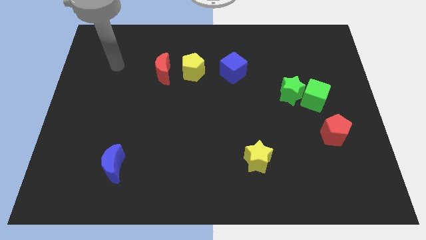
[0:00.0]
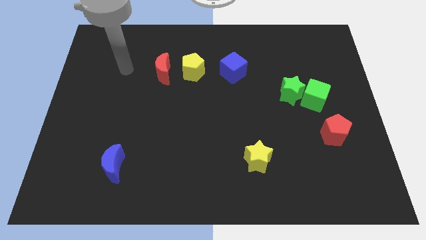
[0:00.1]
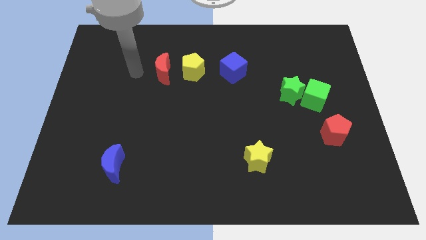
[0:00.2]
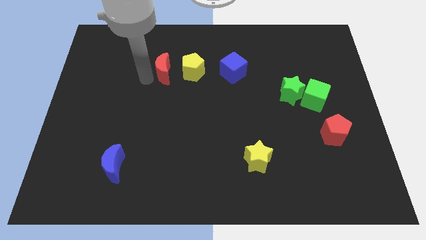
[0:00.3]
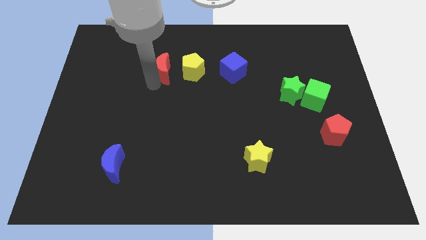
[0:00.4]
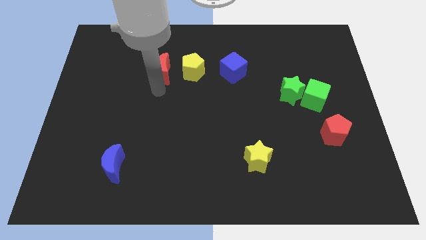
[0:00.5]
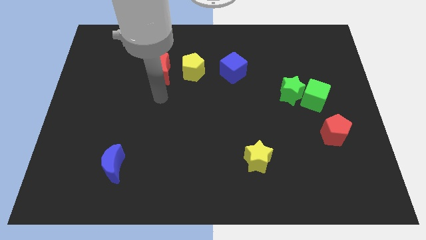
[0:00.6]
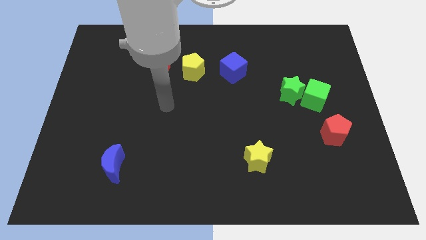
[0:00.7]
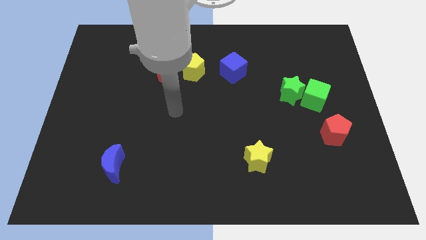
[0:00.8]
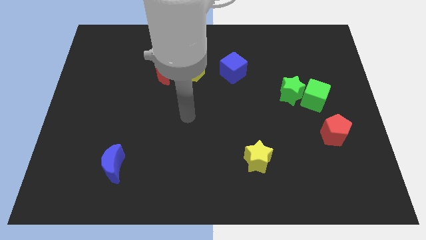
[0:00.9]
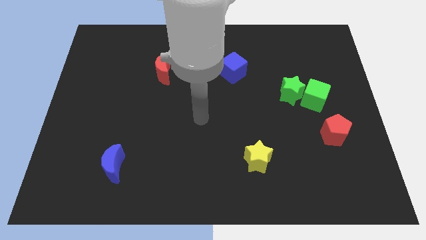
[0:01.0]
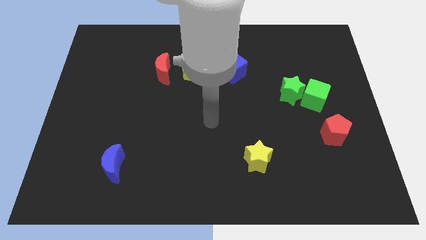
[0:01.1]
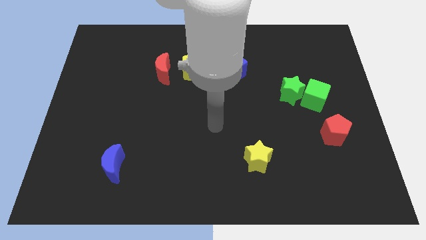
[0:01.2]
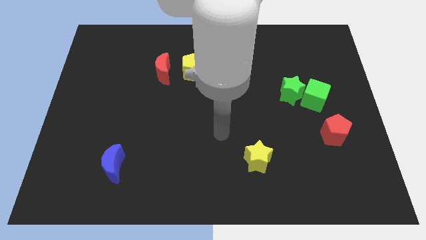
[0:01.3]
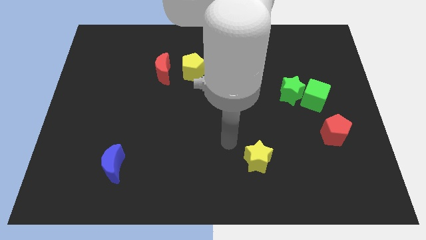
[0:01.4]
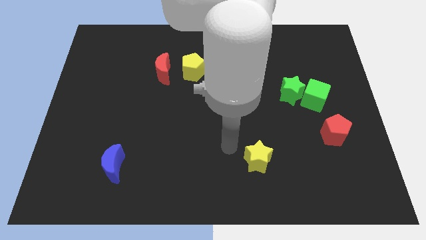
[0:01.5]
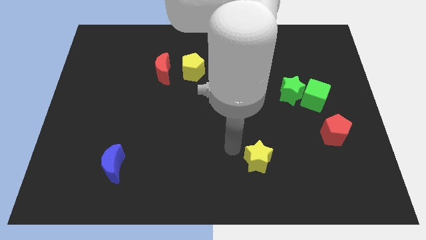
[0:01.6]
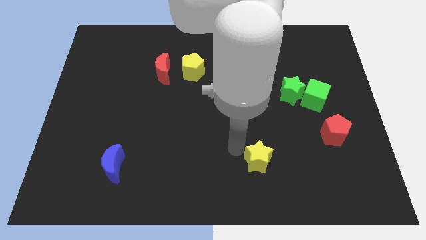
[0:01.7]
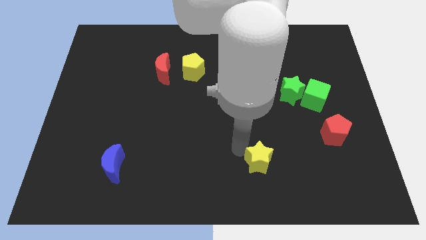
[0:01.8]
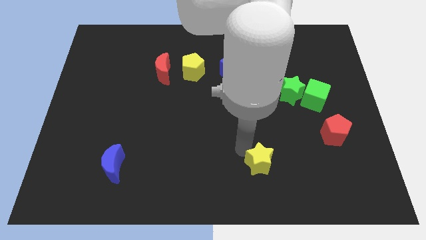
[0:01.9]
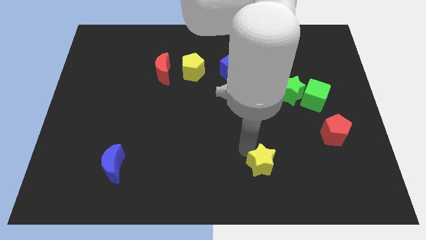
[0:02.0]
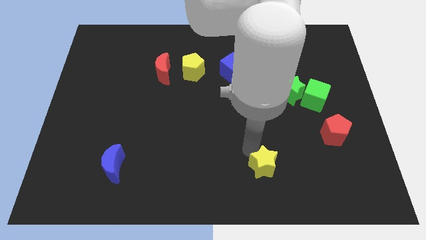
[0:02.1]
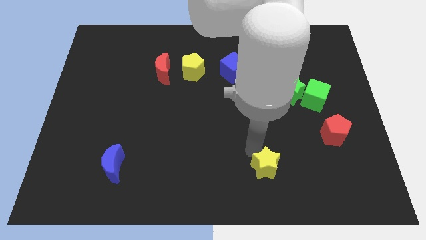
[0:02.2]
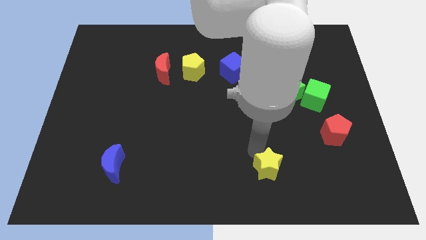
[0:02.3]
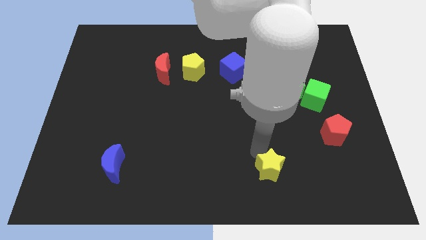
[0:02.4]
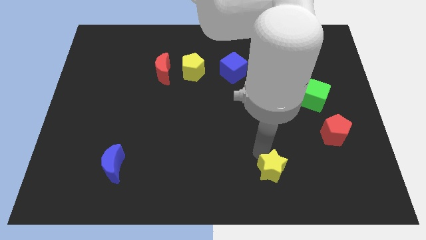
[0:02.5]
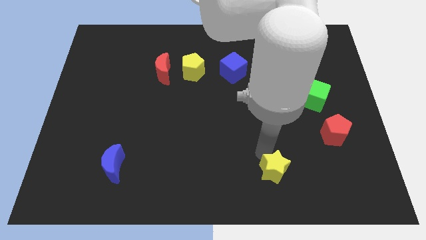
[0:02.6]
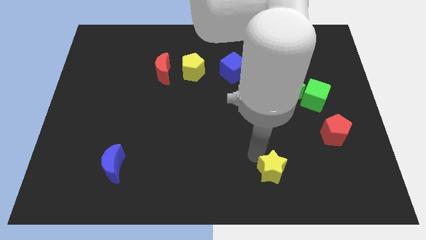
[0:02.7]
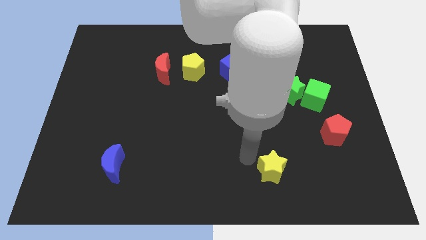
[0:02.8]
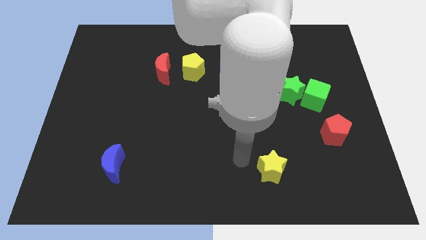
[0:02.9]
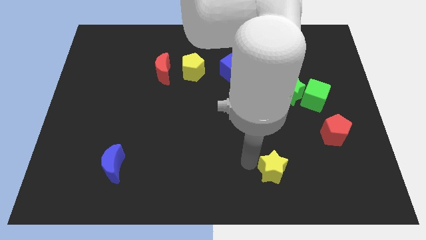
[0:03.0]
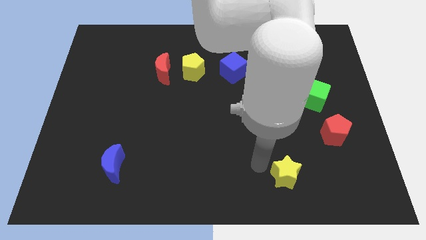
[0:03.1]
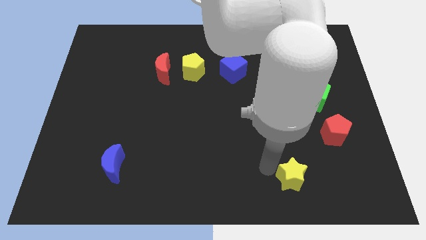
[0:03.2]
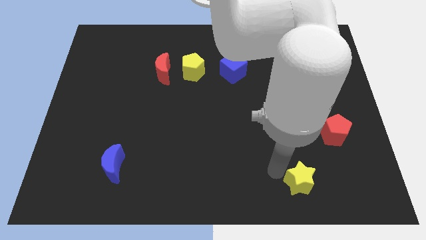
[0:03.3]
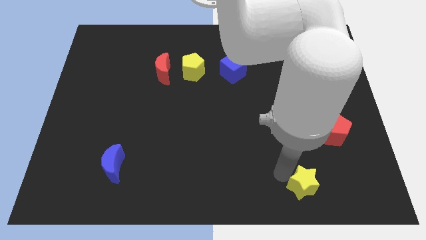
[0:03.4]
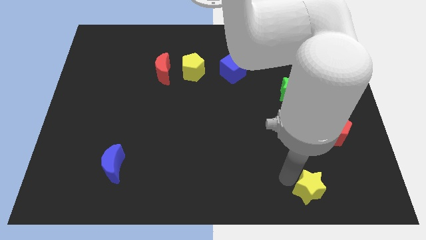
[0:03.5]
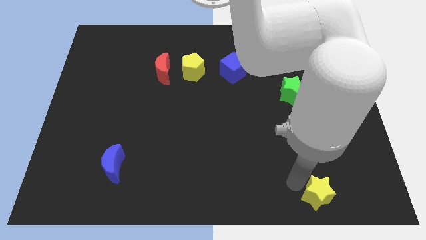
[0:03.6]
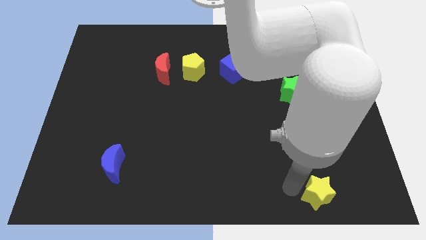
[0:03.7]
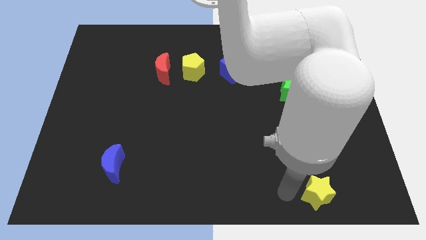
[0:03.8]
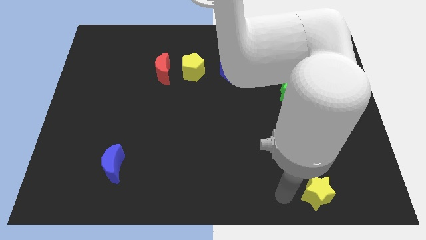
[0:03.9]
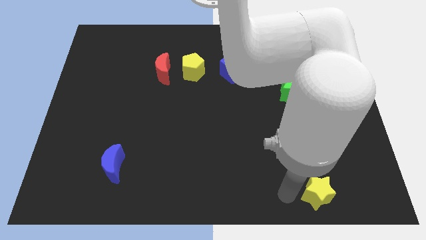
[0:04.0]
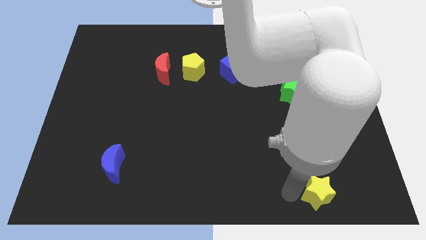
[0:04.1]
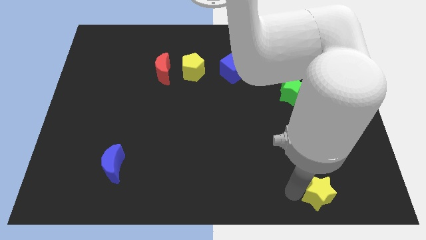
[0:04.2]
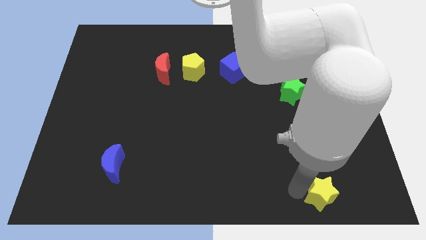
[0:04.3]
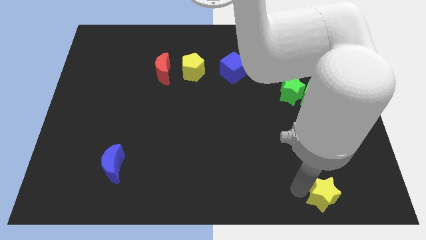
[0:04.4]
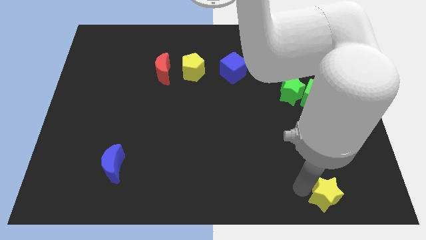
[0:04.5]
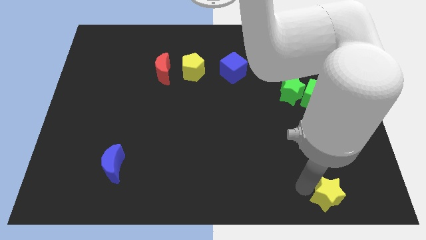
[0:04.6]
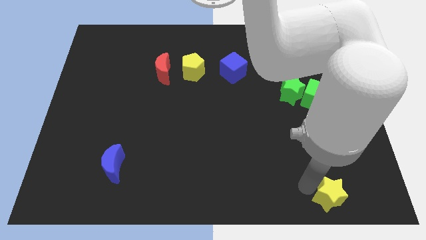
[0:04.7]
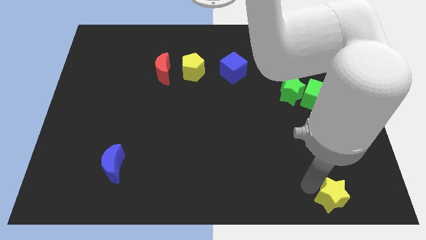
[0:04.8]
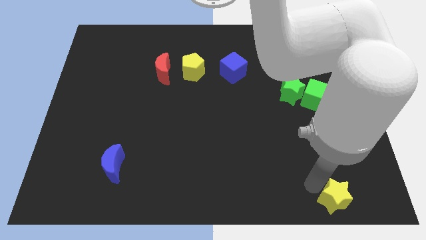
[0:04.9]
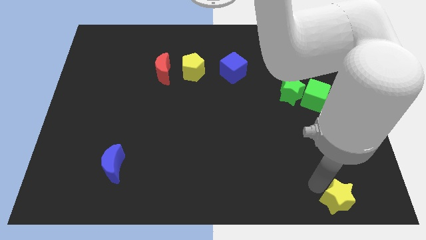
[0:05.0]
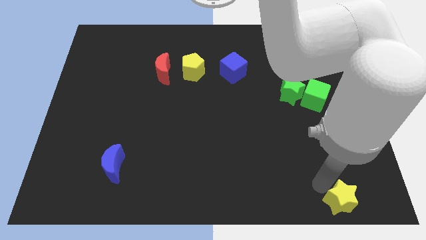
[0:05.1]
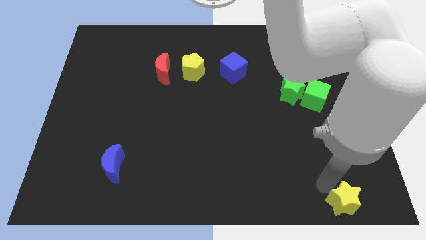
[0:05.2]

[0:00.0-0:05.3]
put the yellow star to the lower right corner

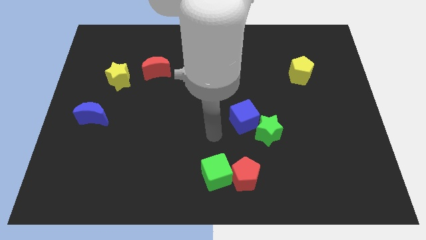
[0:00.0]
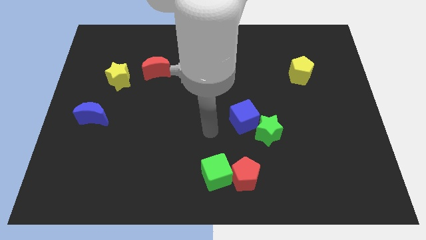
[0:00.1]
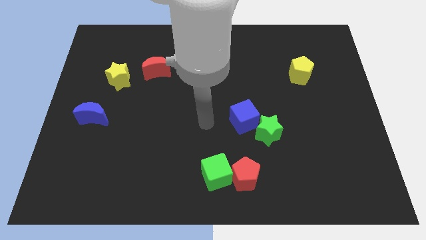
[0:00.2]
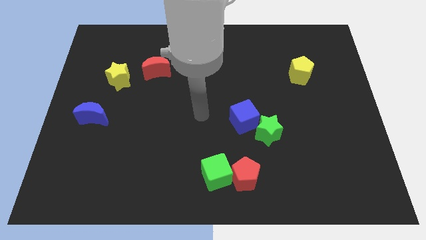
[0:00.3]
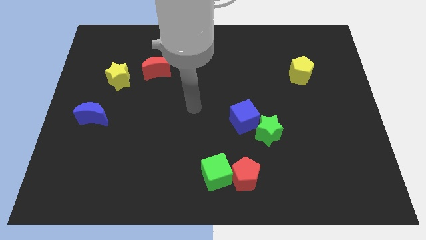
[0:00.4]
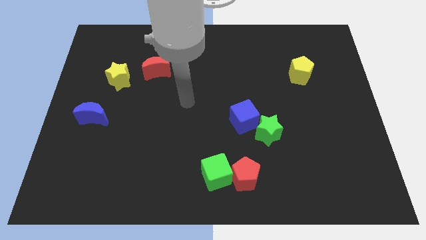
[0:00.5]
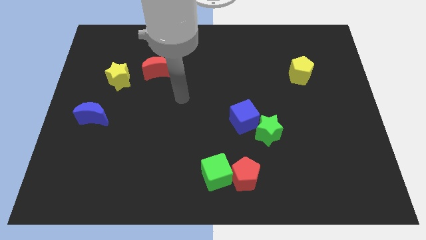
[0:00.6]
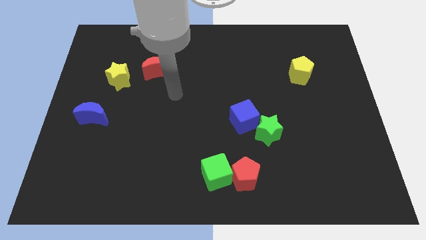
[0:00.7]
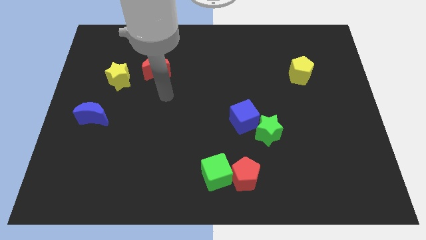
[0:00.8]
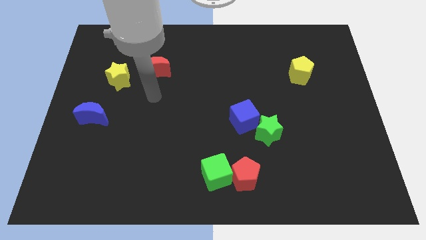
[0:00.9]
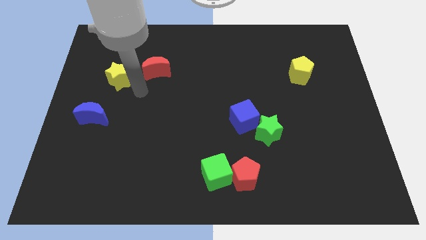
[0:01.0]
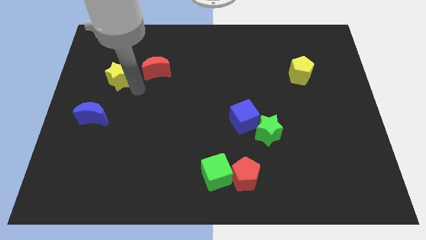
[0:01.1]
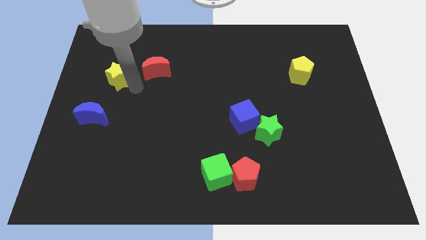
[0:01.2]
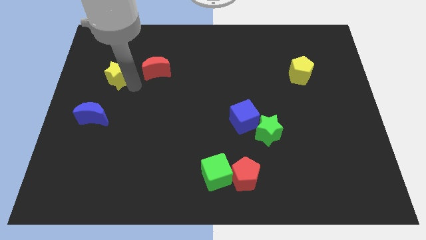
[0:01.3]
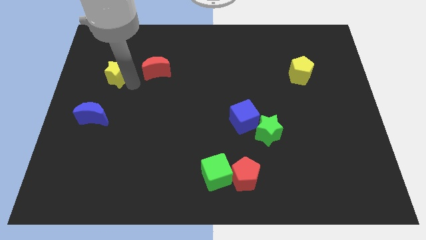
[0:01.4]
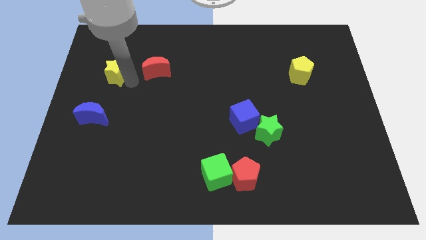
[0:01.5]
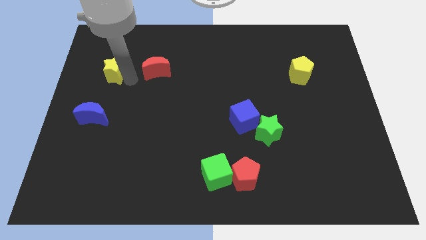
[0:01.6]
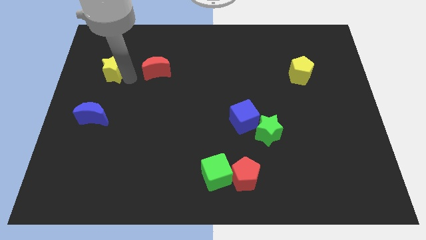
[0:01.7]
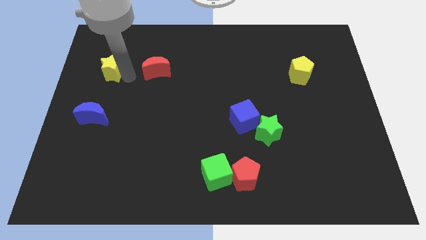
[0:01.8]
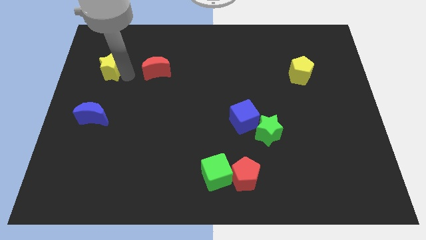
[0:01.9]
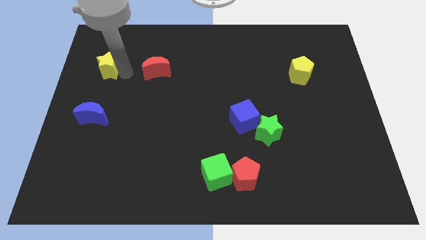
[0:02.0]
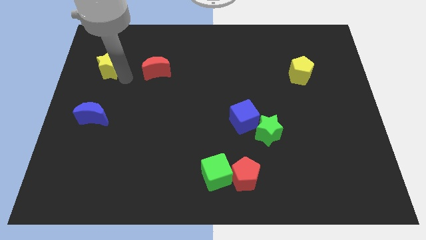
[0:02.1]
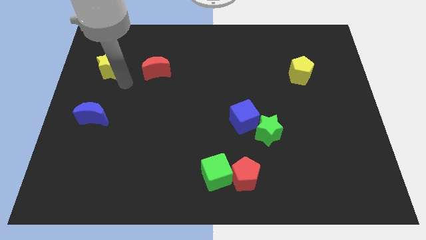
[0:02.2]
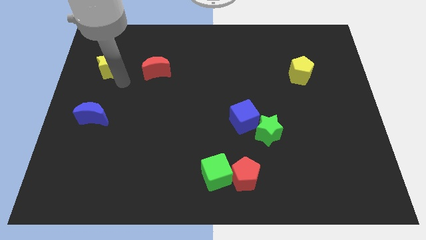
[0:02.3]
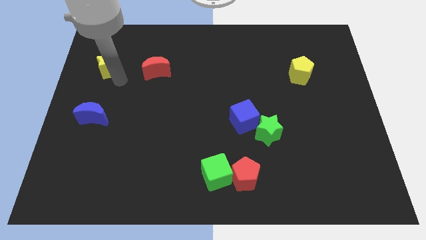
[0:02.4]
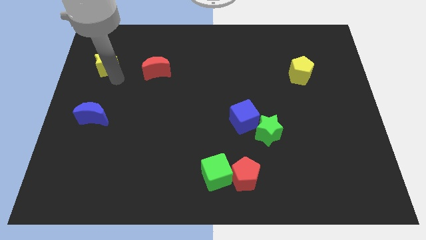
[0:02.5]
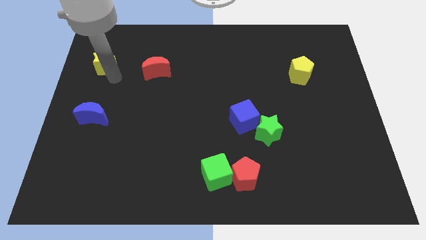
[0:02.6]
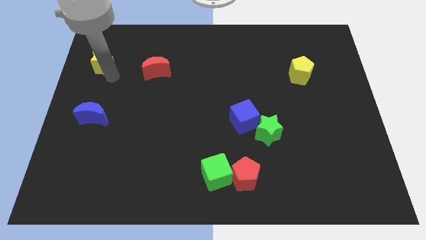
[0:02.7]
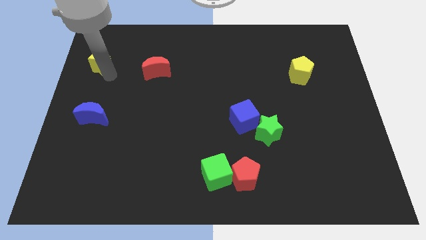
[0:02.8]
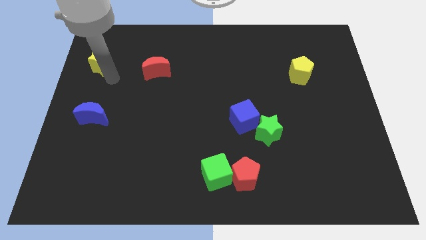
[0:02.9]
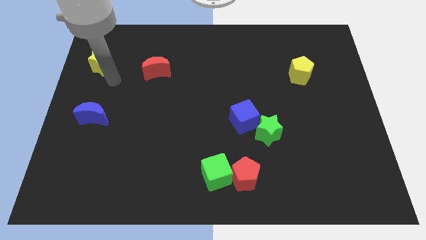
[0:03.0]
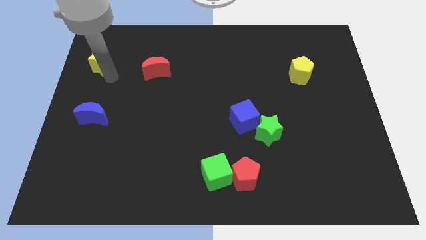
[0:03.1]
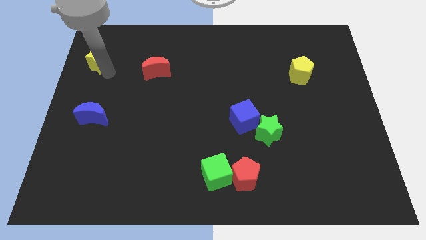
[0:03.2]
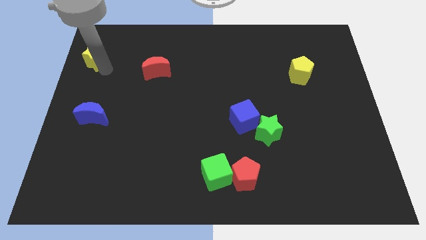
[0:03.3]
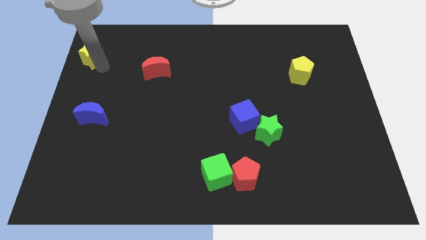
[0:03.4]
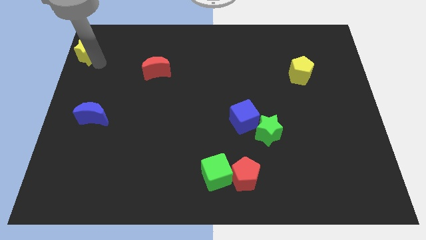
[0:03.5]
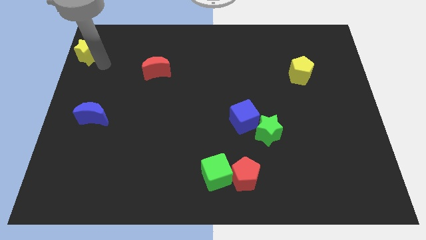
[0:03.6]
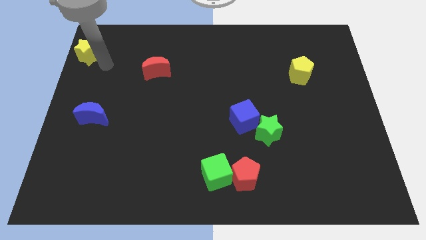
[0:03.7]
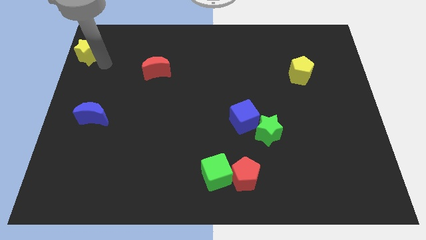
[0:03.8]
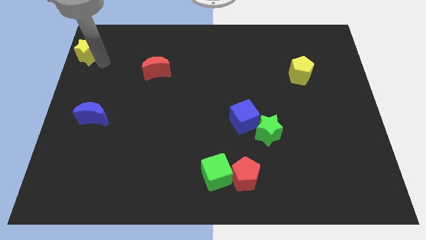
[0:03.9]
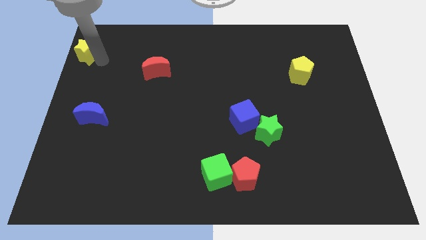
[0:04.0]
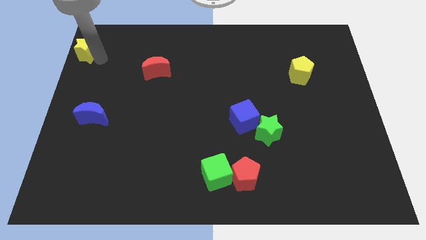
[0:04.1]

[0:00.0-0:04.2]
push the yellow star to the top left of the board
